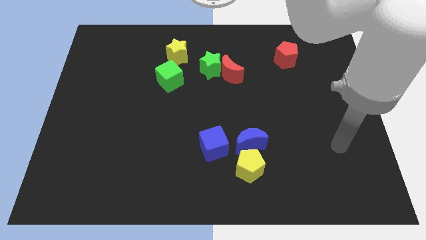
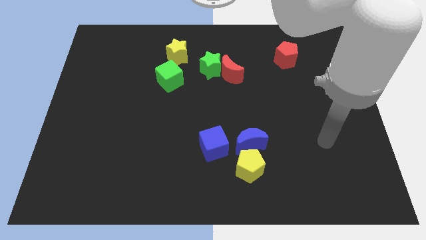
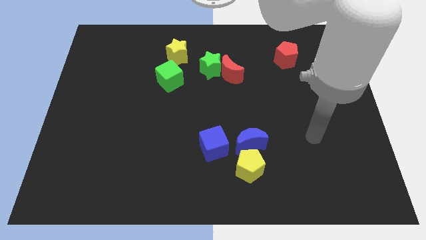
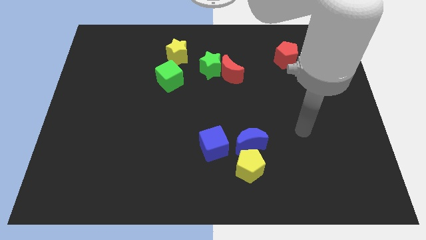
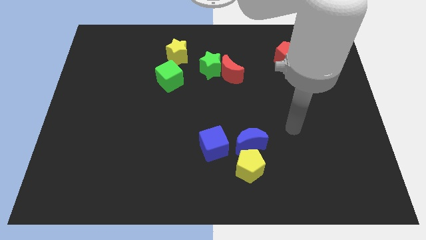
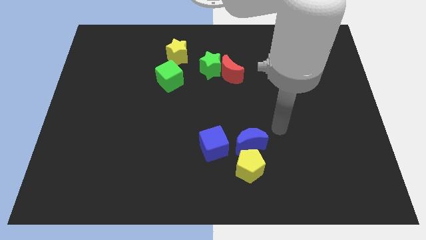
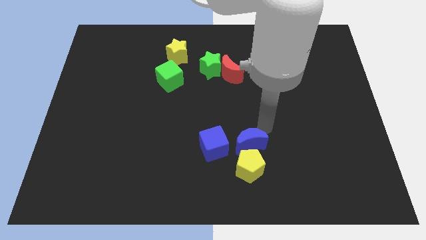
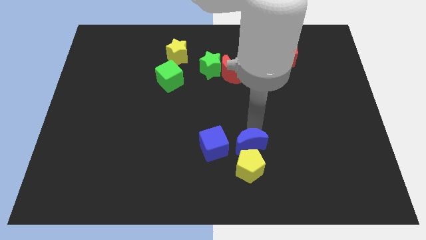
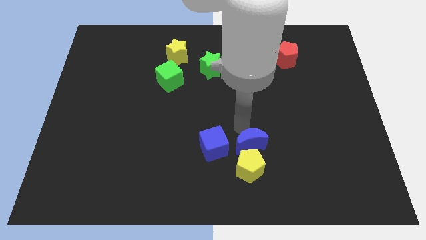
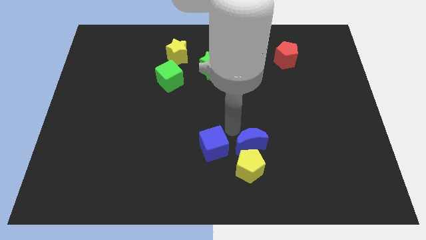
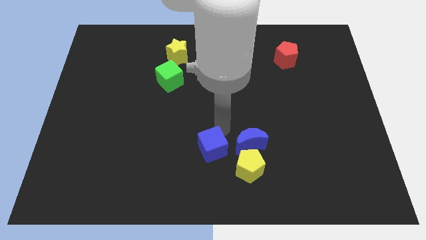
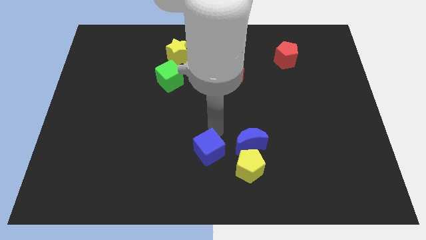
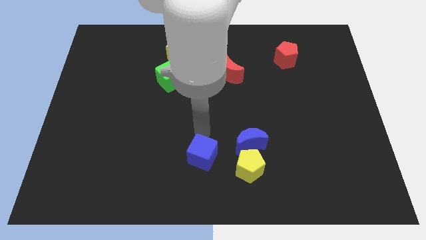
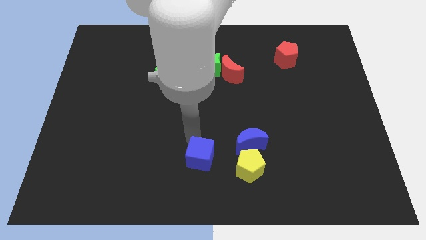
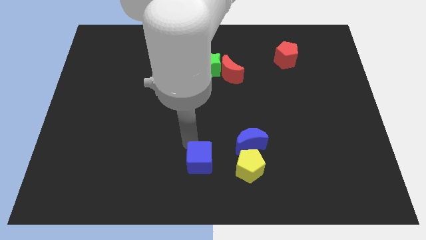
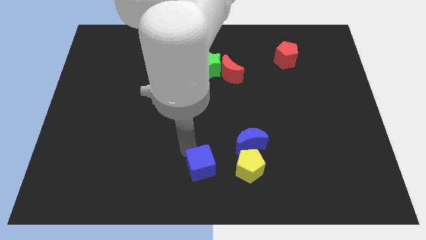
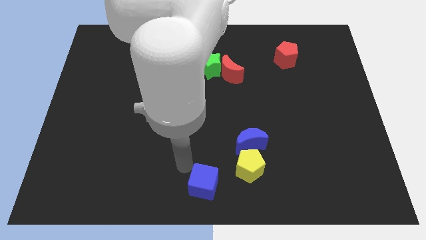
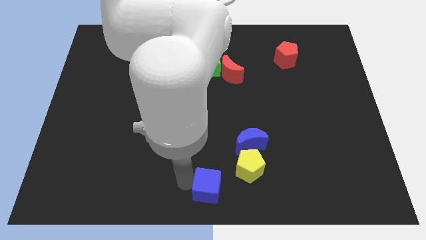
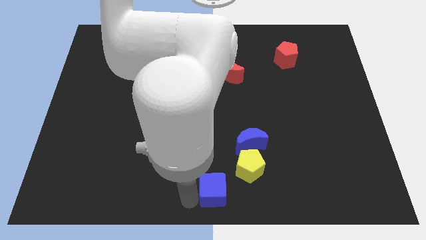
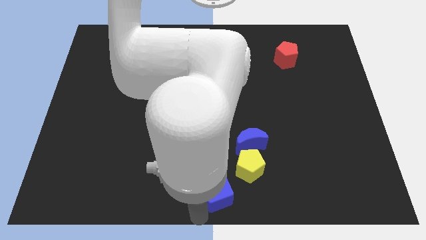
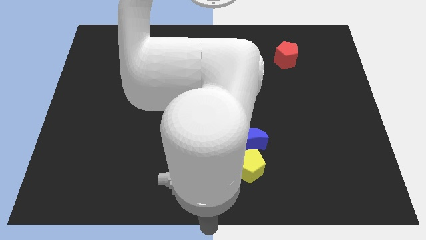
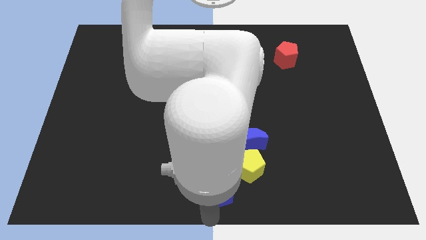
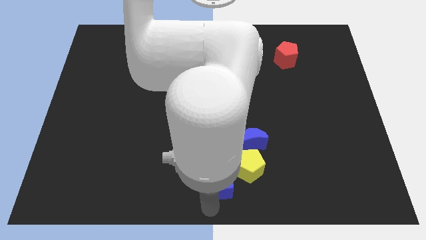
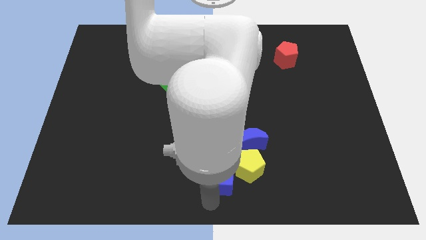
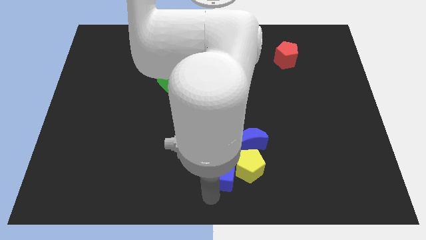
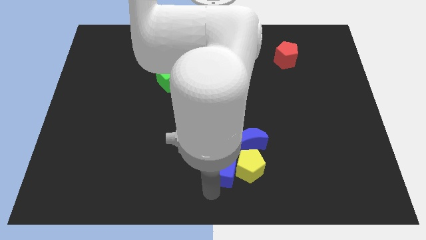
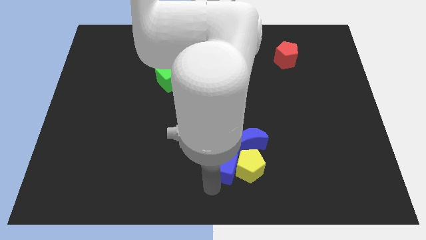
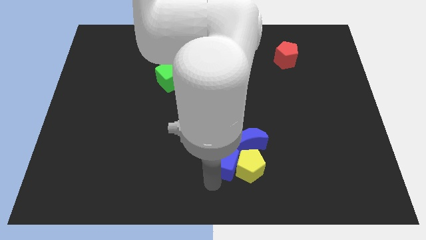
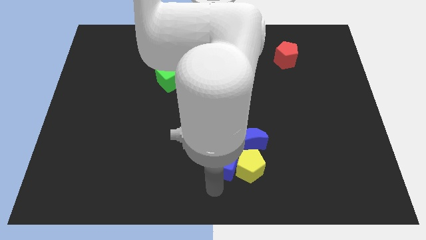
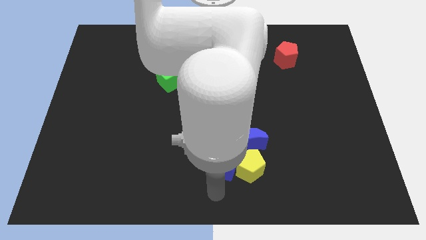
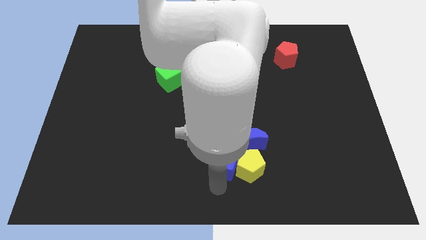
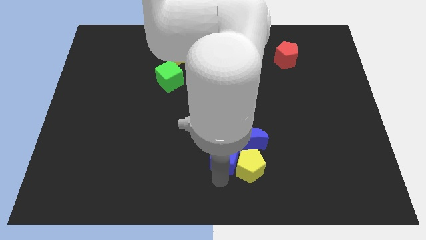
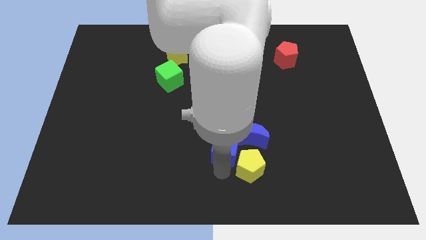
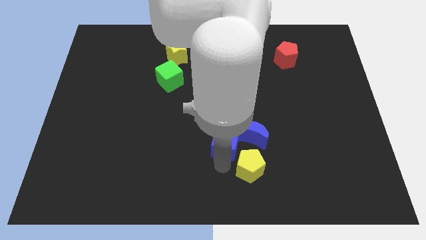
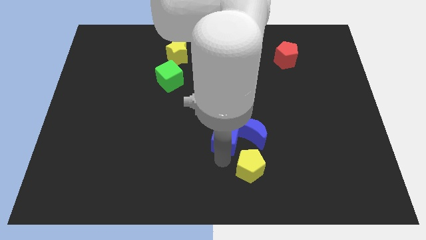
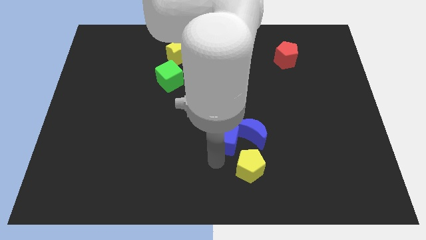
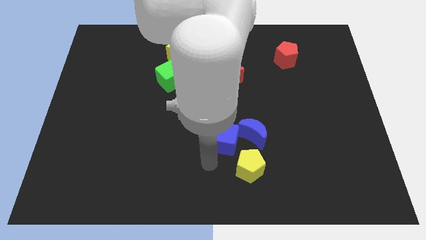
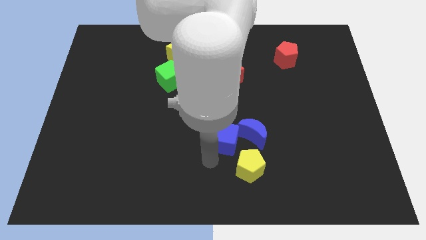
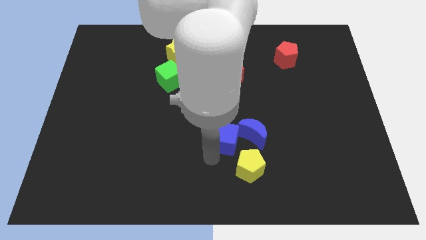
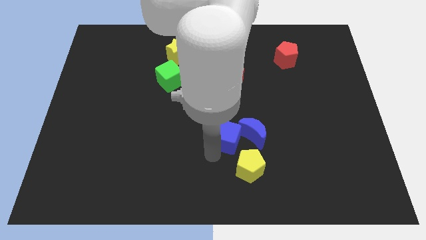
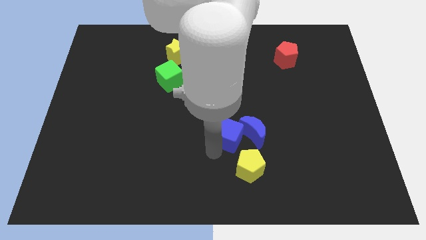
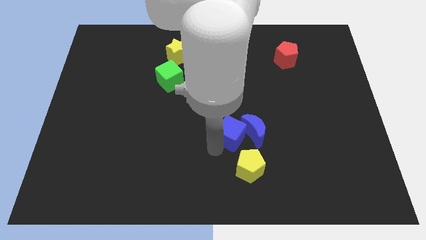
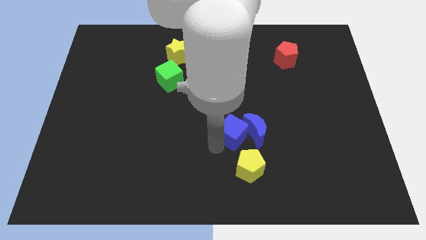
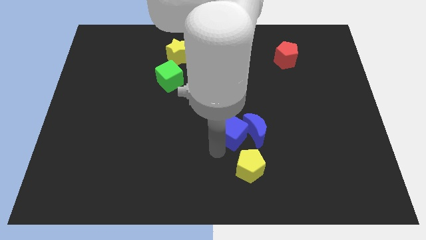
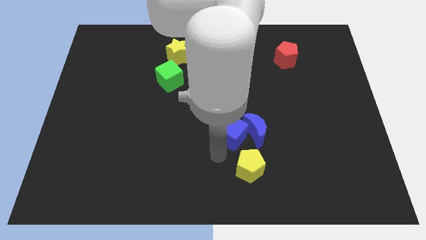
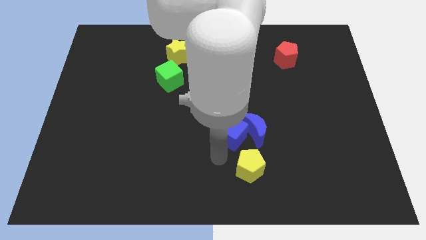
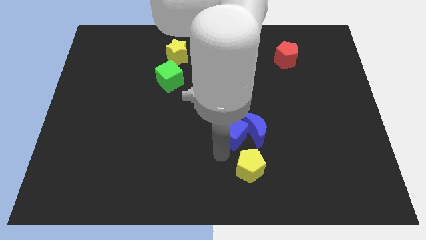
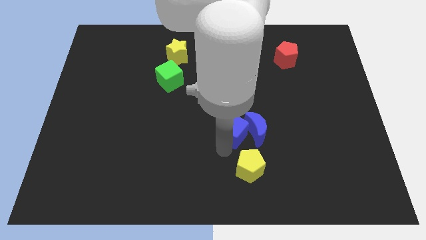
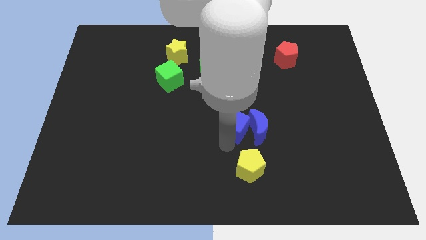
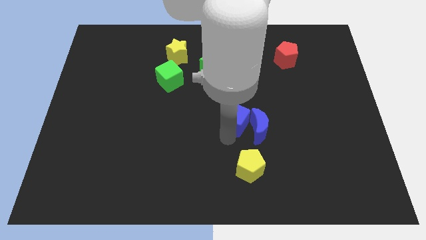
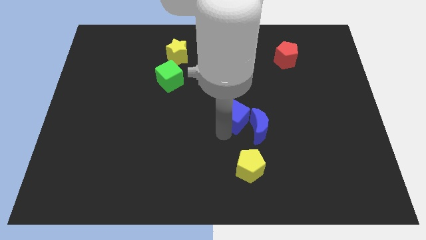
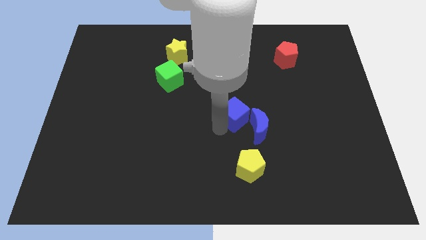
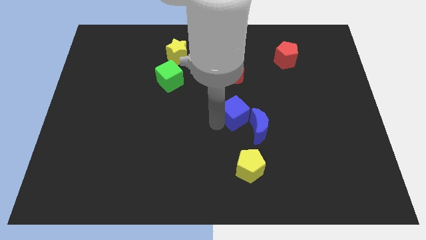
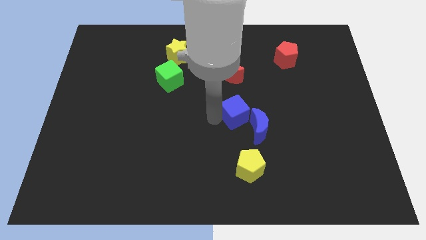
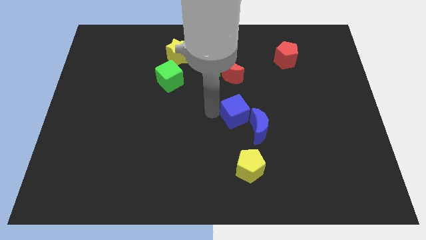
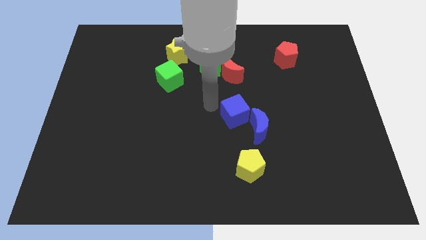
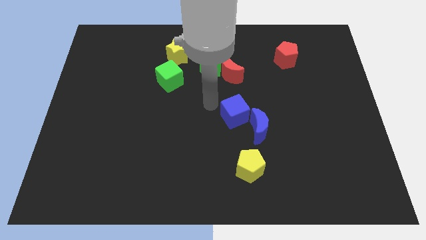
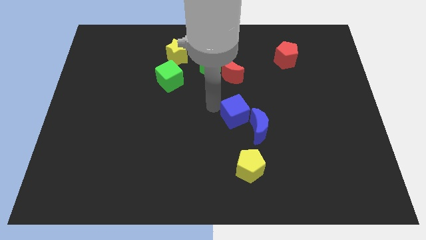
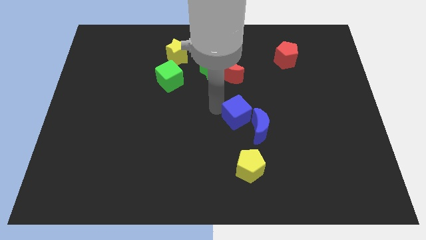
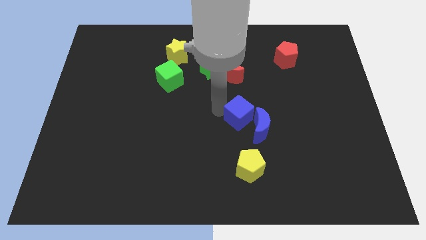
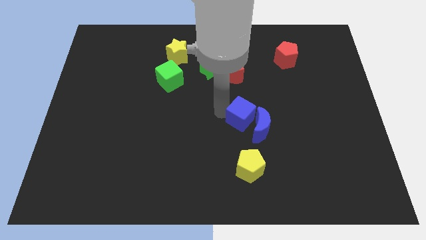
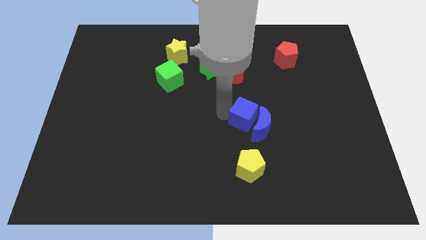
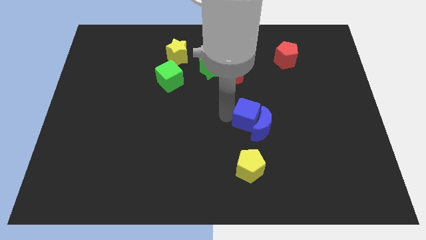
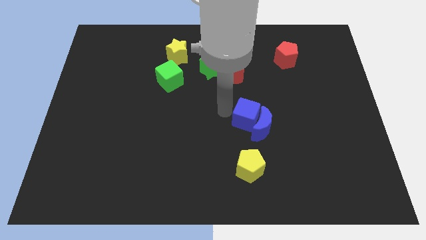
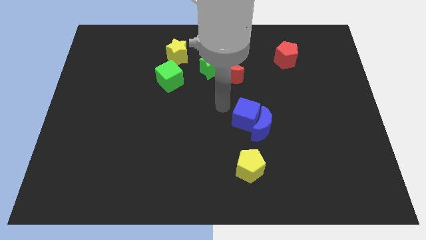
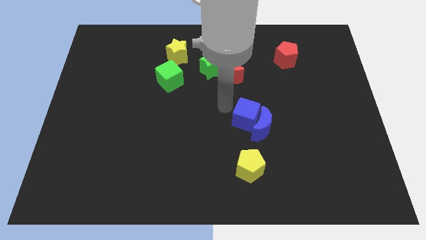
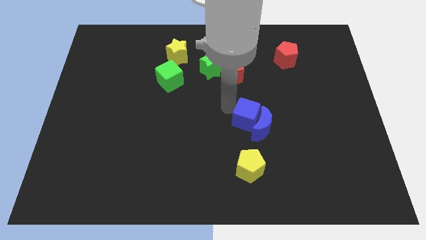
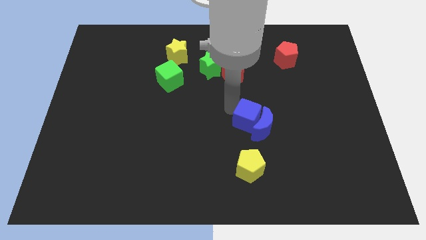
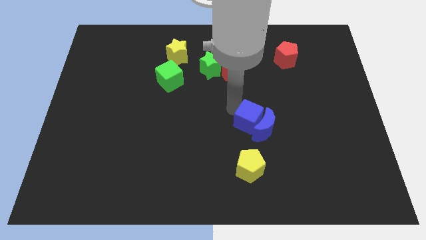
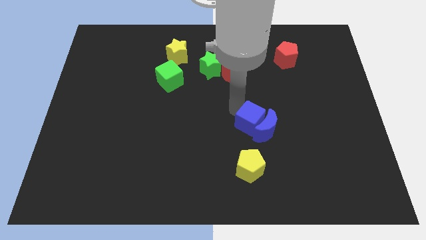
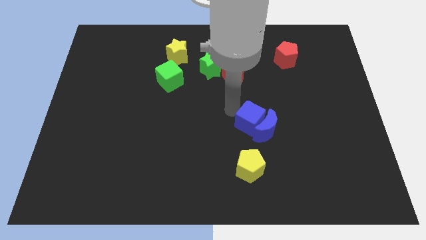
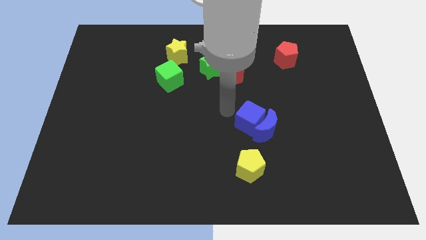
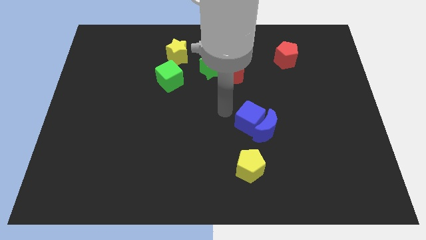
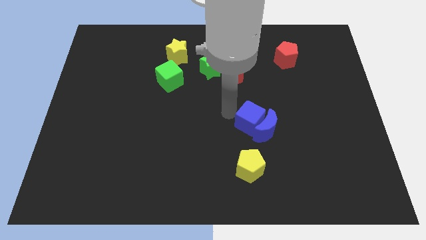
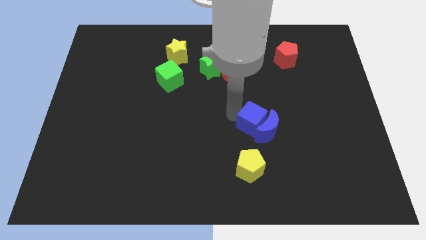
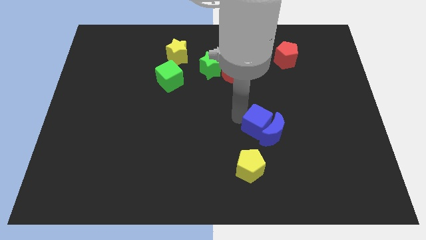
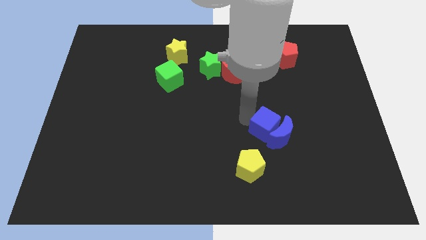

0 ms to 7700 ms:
put the blue cube to the top right side of the yellow pentagon

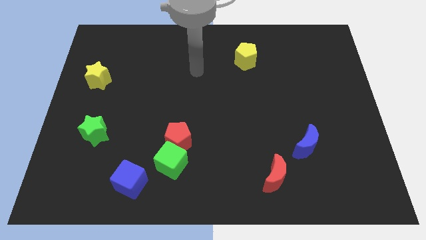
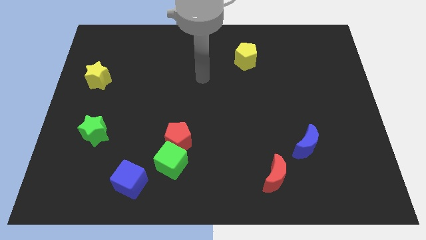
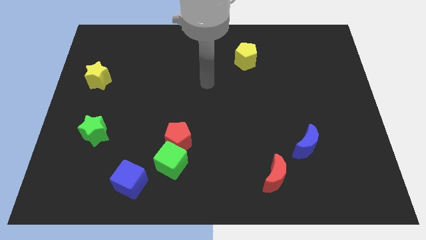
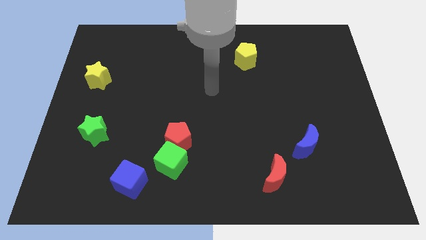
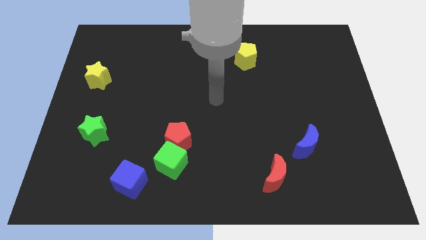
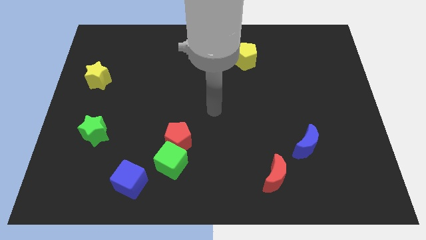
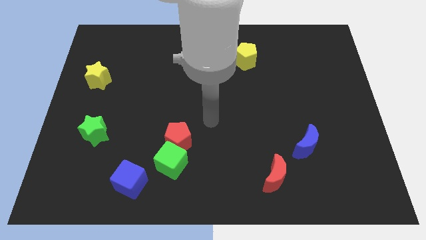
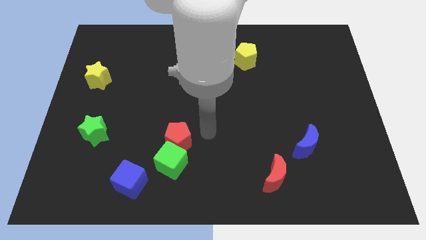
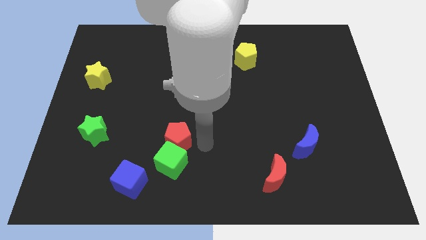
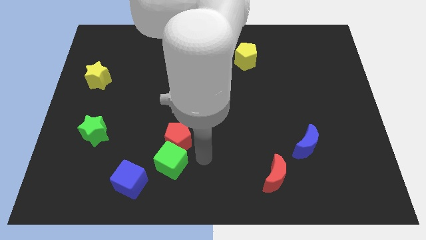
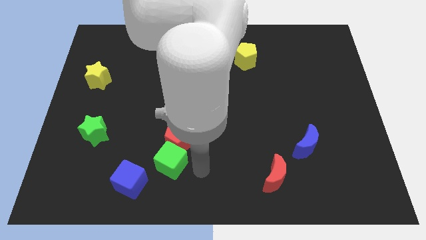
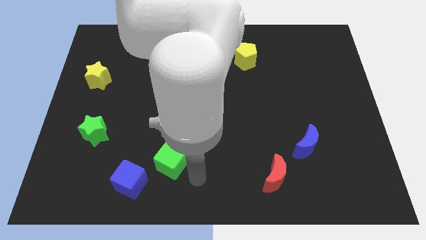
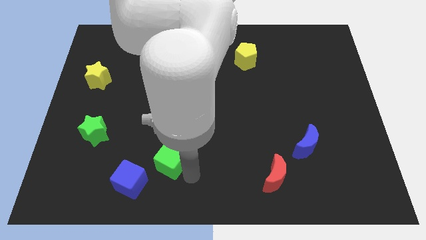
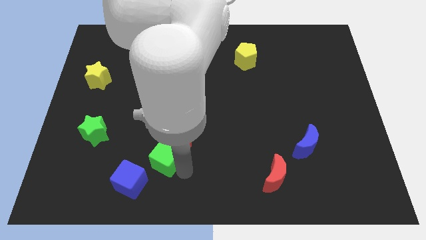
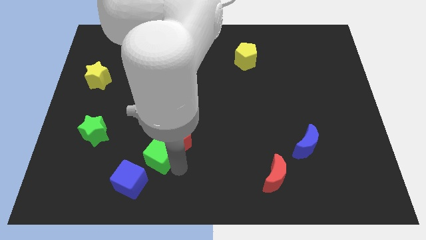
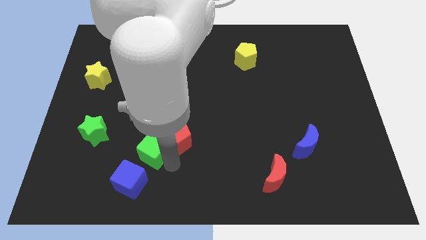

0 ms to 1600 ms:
put the green cube above the blue cube
